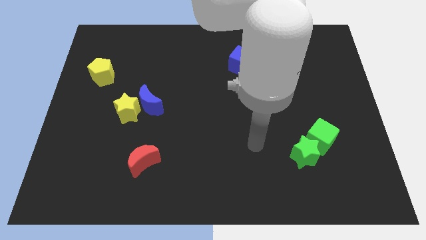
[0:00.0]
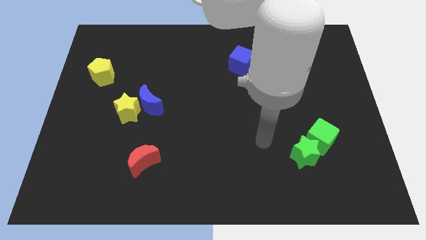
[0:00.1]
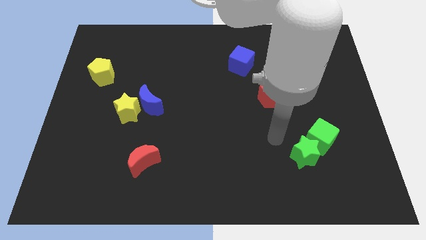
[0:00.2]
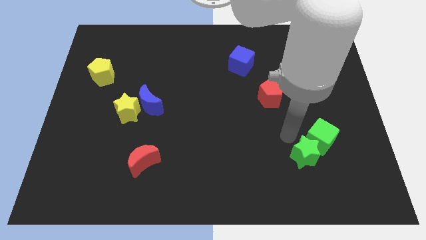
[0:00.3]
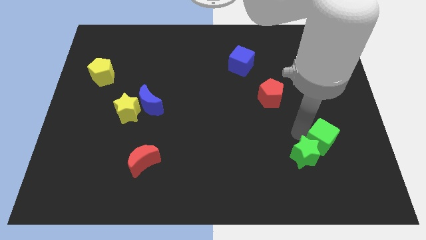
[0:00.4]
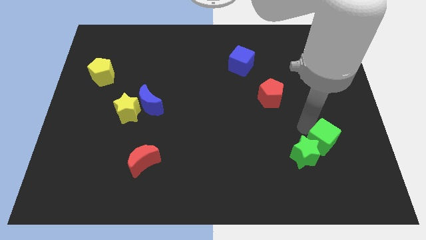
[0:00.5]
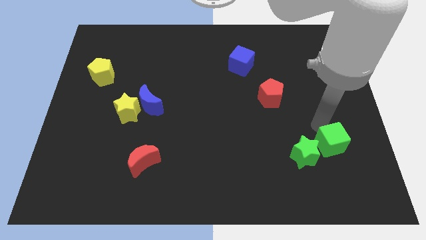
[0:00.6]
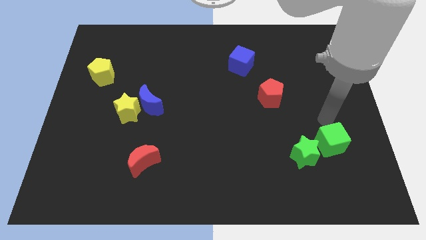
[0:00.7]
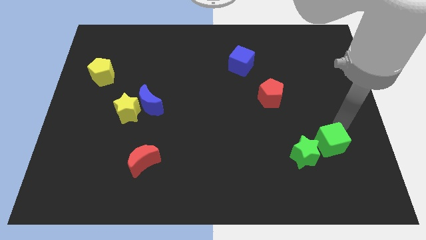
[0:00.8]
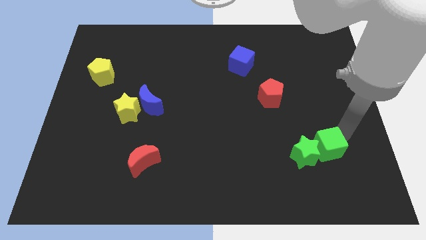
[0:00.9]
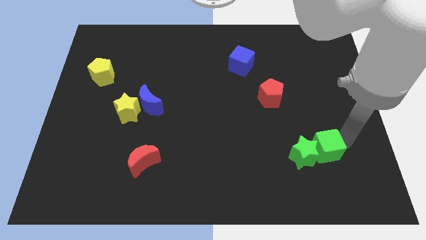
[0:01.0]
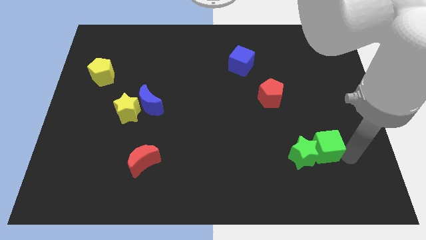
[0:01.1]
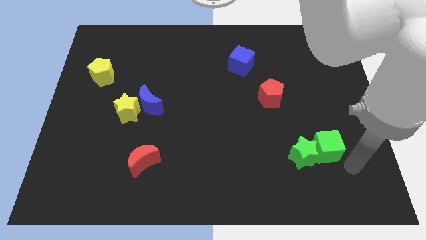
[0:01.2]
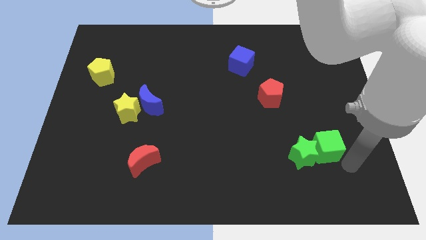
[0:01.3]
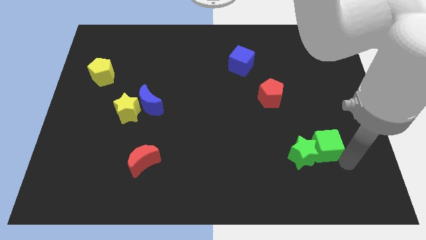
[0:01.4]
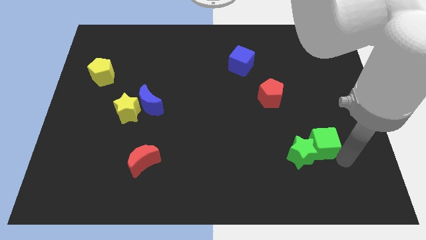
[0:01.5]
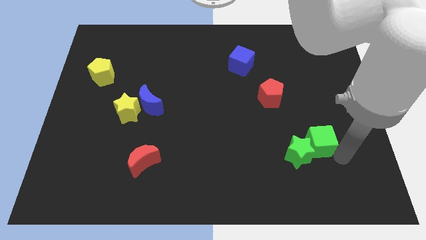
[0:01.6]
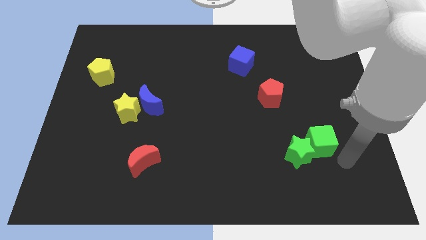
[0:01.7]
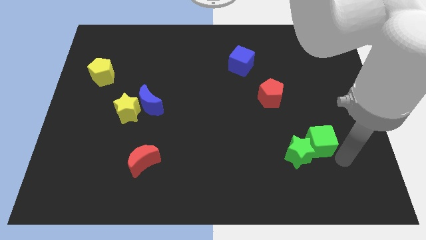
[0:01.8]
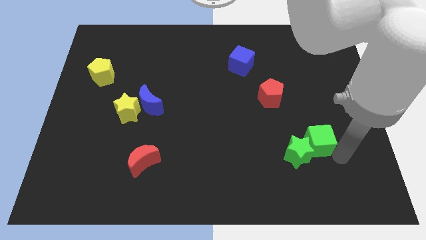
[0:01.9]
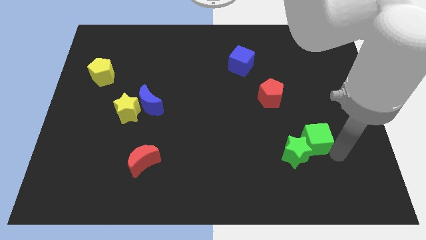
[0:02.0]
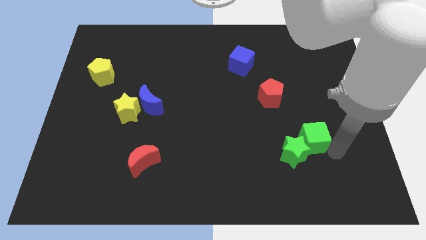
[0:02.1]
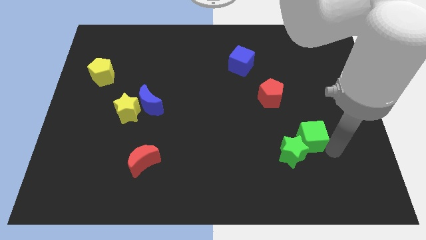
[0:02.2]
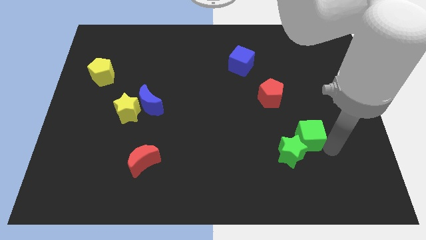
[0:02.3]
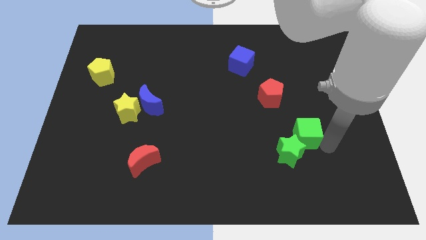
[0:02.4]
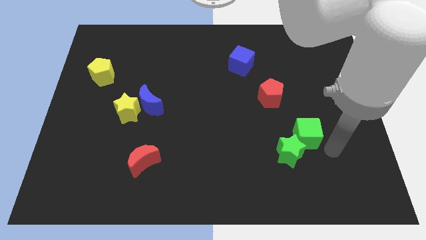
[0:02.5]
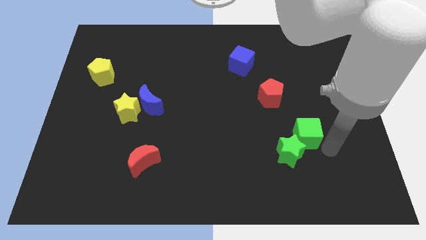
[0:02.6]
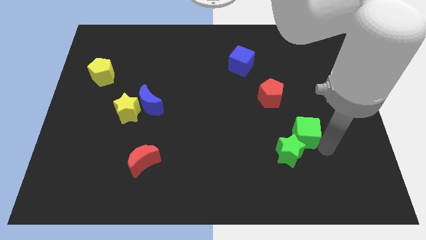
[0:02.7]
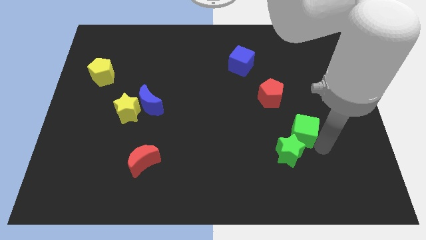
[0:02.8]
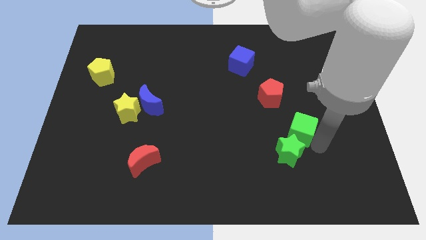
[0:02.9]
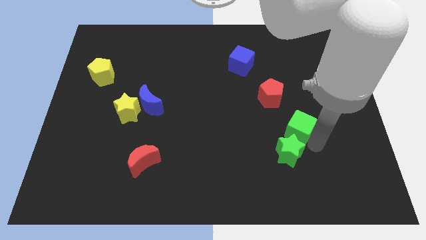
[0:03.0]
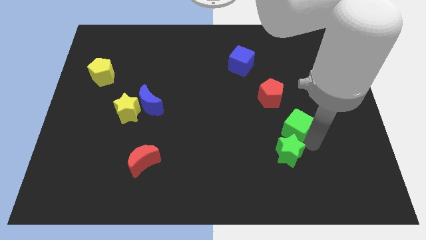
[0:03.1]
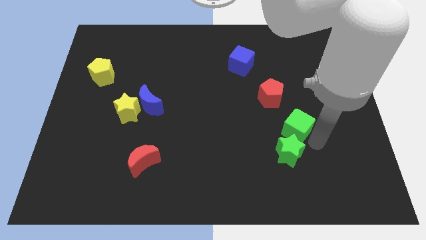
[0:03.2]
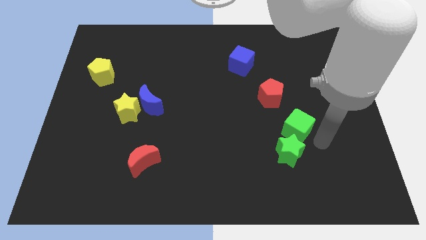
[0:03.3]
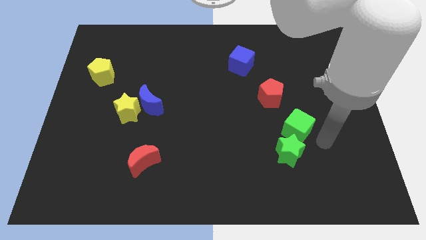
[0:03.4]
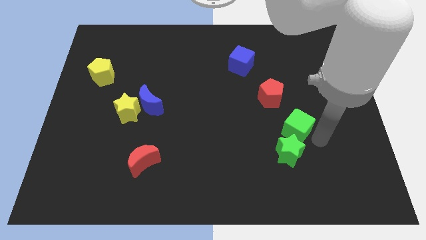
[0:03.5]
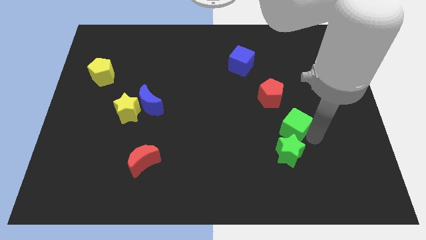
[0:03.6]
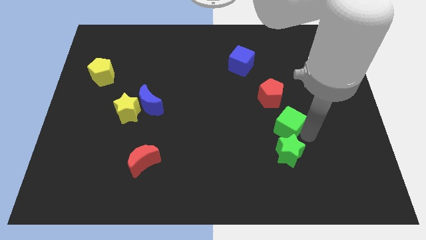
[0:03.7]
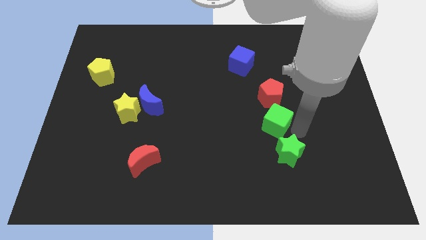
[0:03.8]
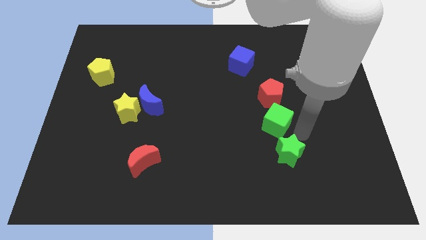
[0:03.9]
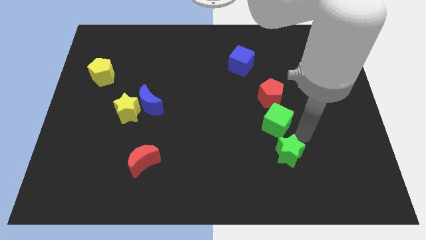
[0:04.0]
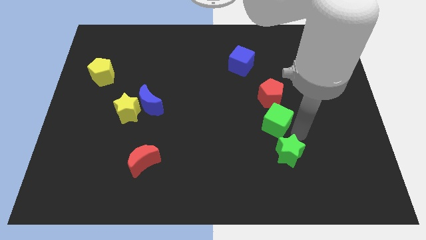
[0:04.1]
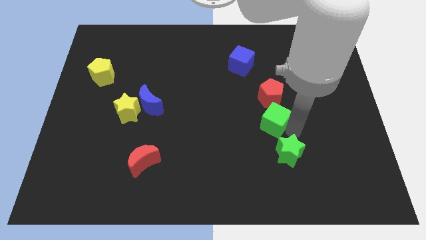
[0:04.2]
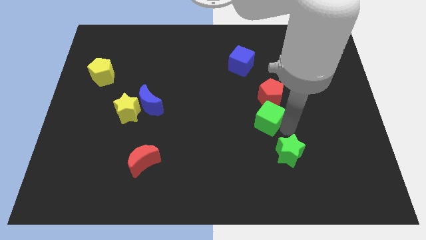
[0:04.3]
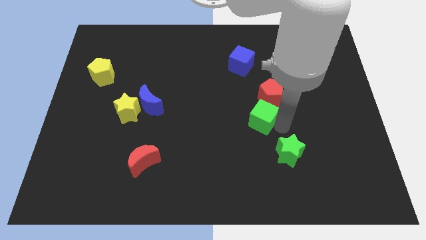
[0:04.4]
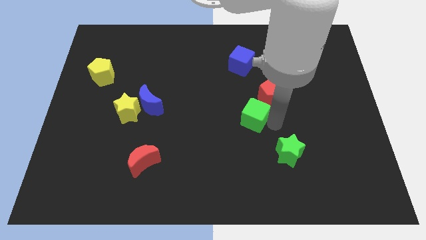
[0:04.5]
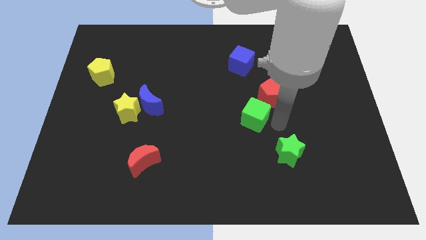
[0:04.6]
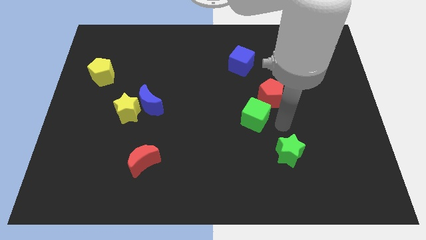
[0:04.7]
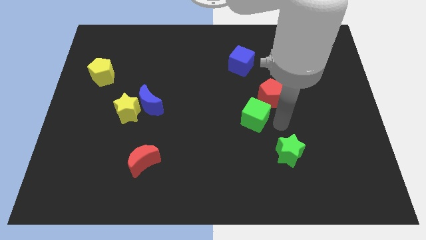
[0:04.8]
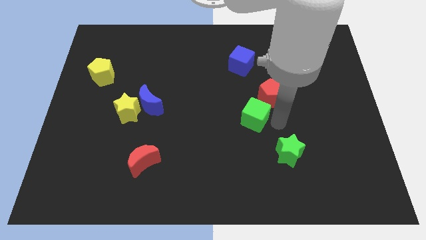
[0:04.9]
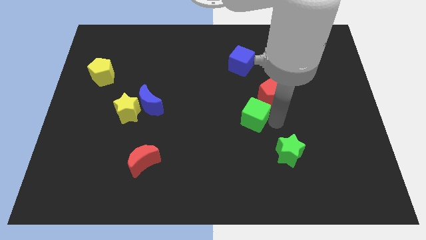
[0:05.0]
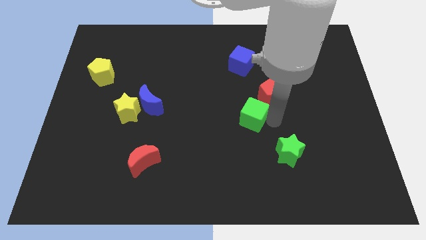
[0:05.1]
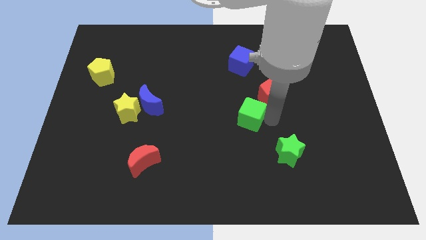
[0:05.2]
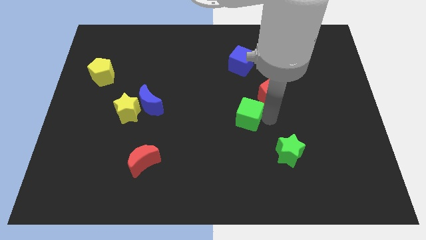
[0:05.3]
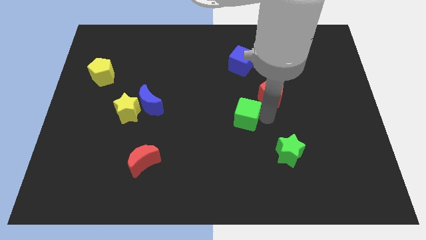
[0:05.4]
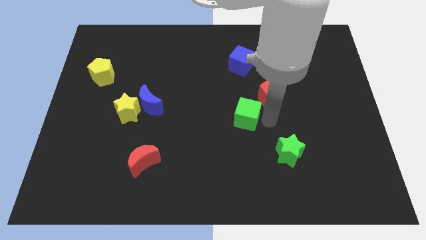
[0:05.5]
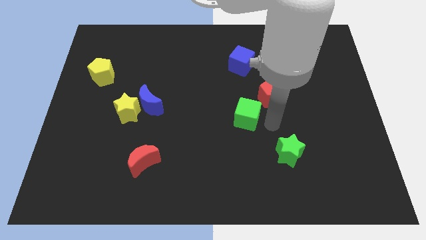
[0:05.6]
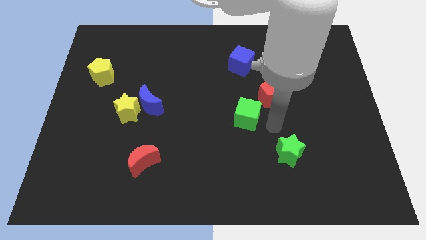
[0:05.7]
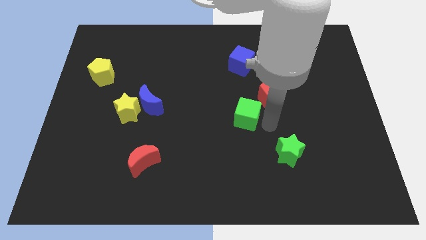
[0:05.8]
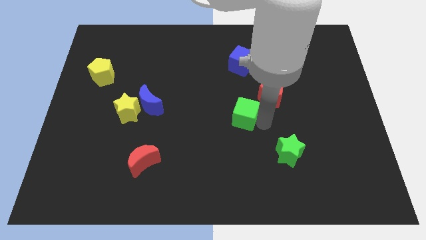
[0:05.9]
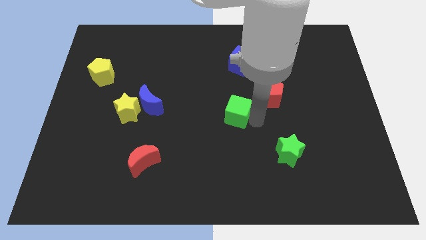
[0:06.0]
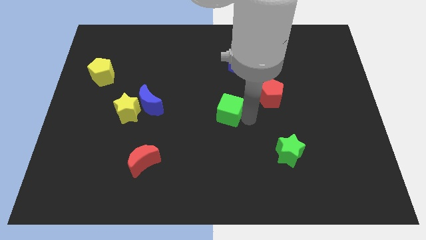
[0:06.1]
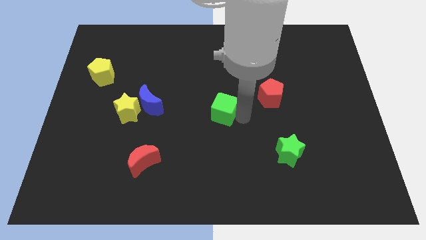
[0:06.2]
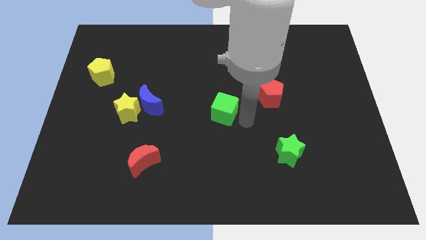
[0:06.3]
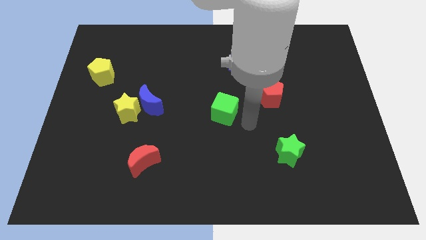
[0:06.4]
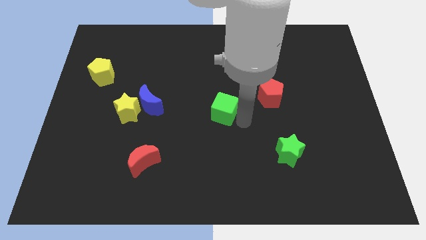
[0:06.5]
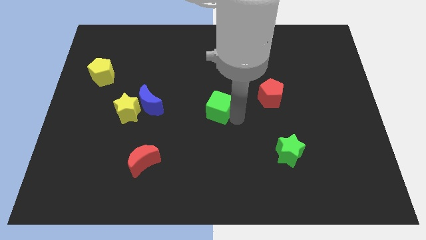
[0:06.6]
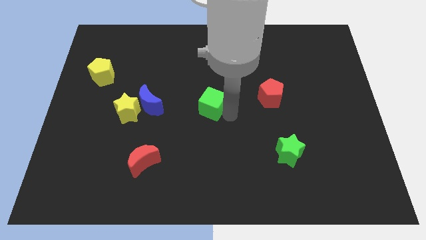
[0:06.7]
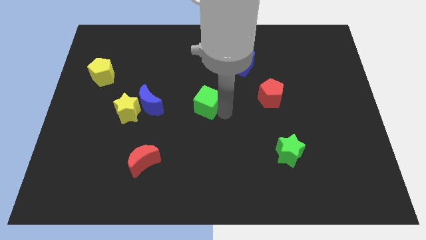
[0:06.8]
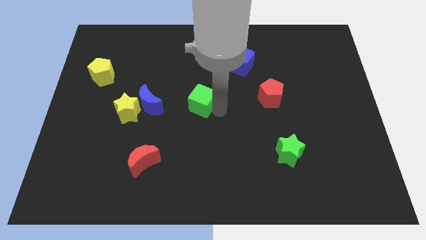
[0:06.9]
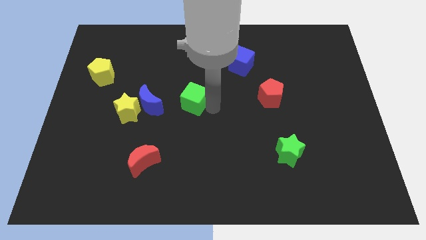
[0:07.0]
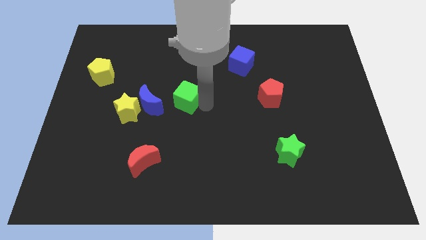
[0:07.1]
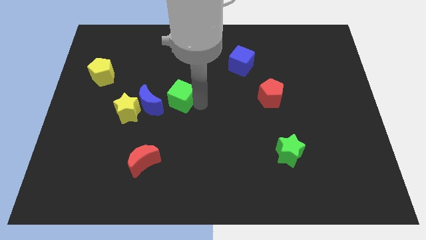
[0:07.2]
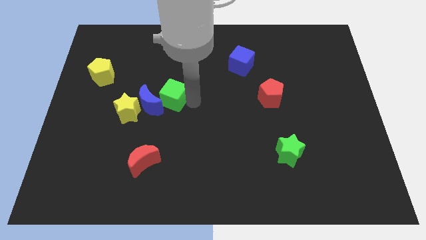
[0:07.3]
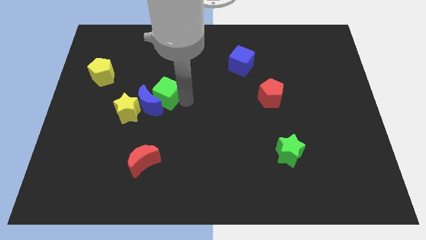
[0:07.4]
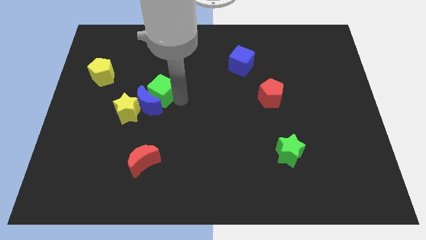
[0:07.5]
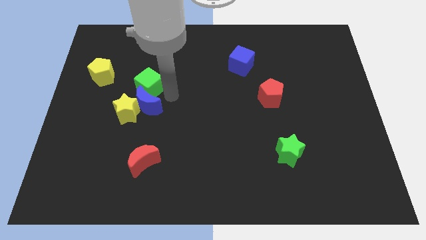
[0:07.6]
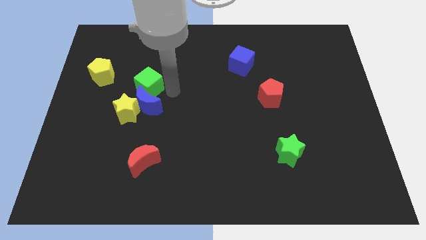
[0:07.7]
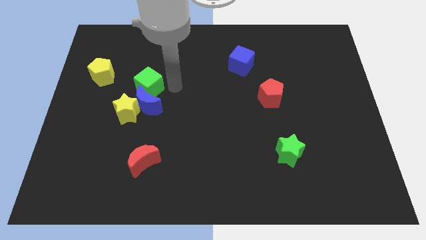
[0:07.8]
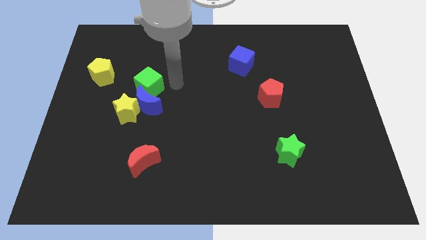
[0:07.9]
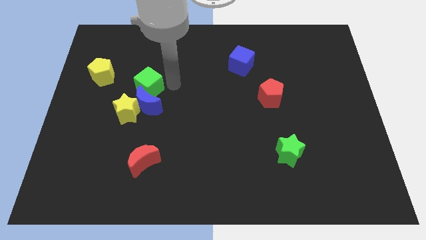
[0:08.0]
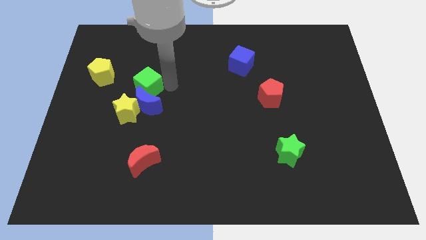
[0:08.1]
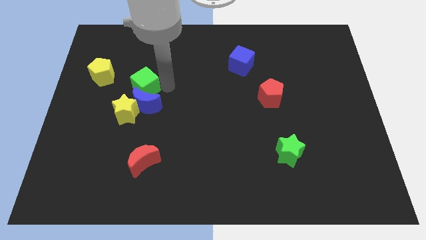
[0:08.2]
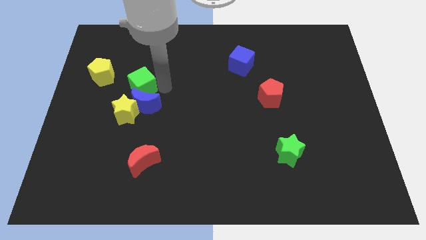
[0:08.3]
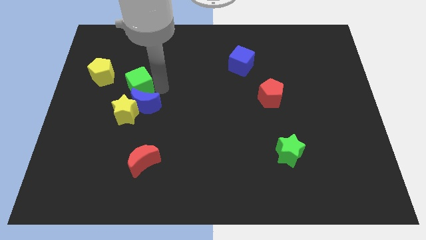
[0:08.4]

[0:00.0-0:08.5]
move the green cube to the bottom right side of the yellow pentagon
